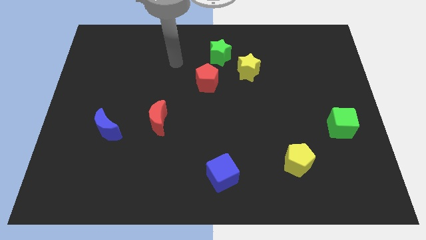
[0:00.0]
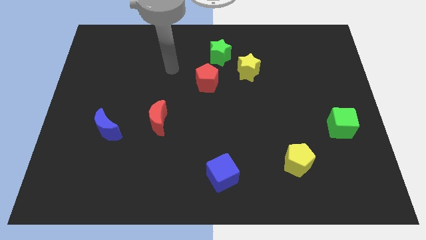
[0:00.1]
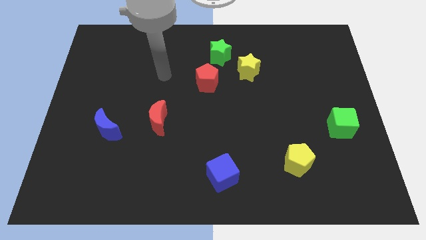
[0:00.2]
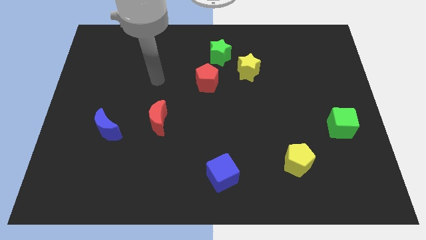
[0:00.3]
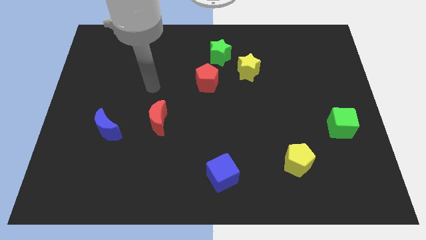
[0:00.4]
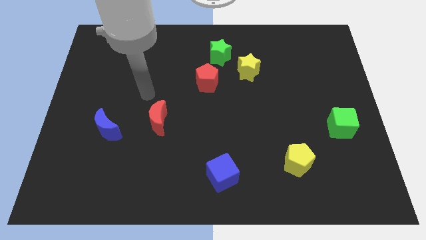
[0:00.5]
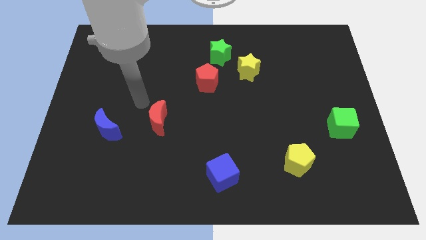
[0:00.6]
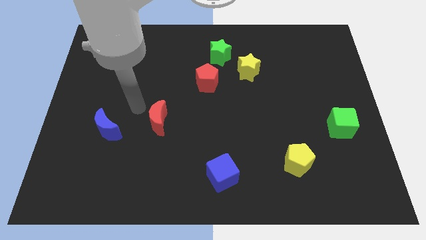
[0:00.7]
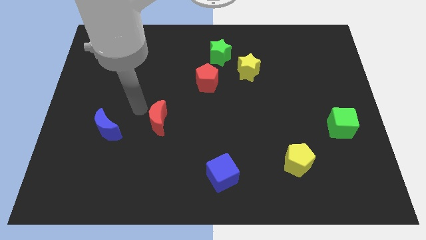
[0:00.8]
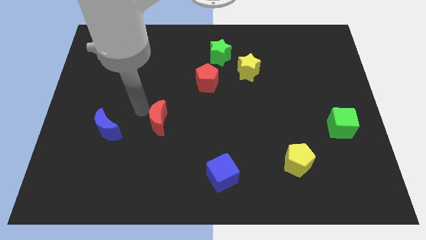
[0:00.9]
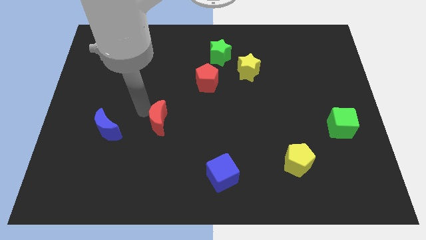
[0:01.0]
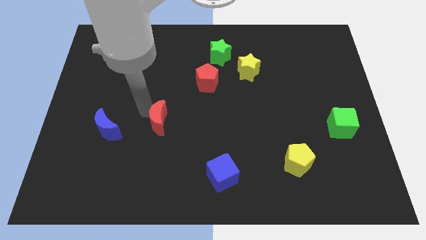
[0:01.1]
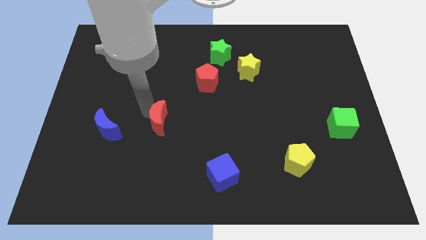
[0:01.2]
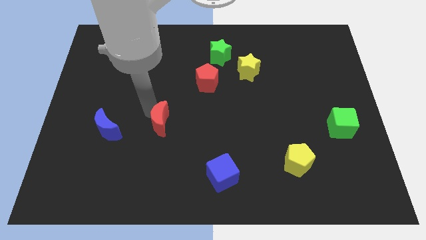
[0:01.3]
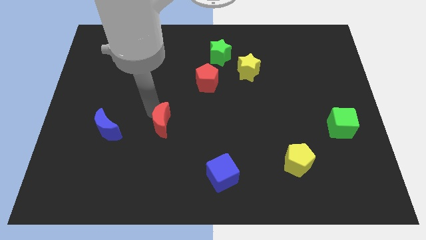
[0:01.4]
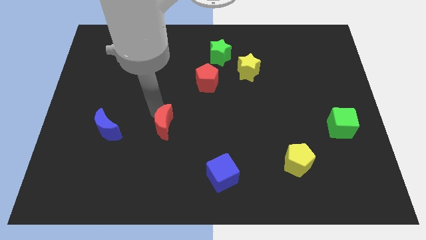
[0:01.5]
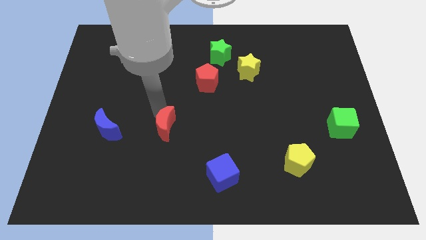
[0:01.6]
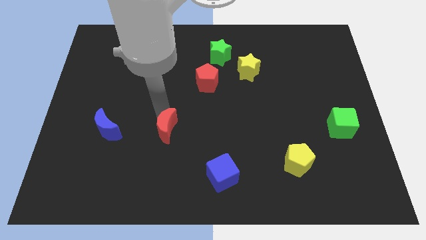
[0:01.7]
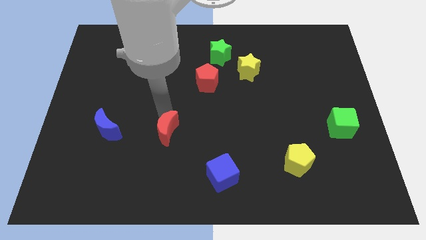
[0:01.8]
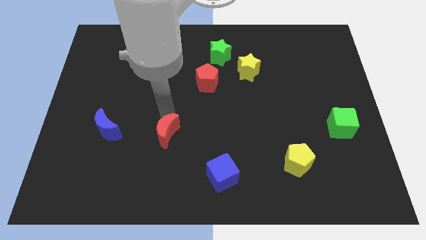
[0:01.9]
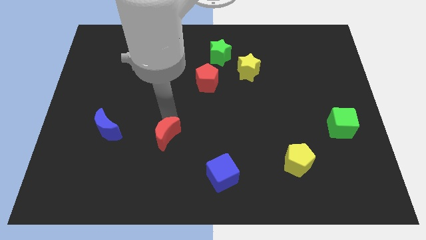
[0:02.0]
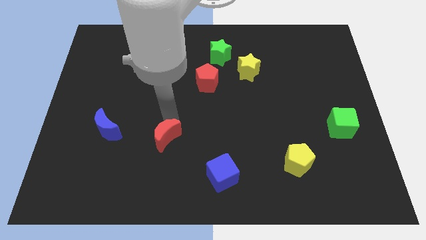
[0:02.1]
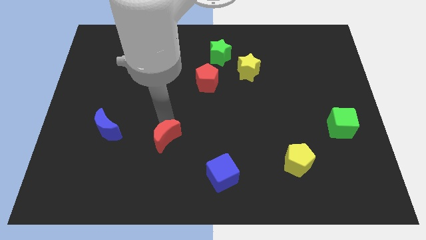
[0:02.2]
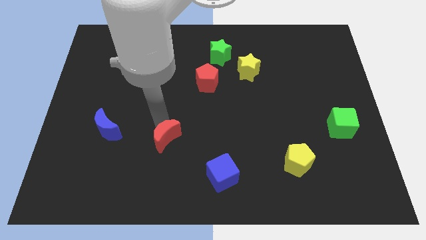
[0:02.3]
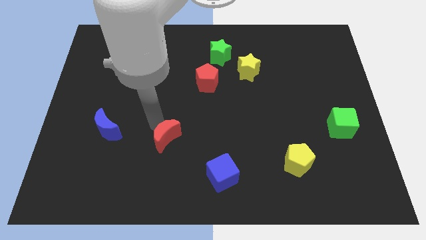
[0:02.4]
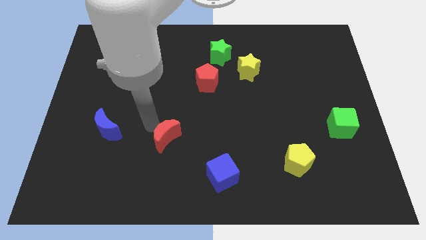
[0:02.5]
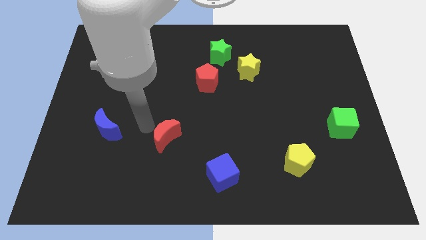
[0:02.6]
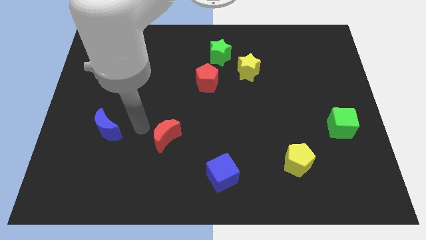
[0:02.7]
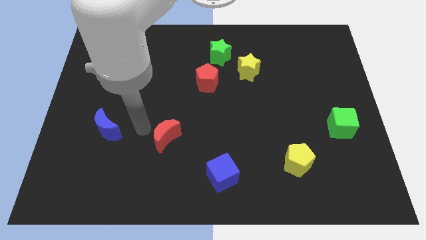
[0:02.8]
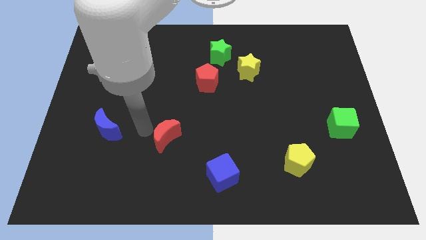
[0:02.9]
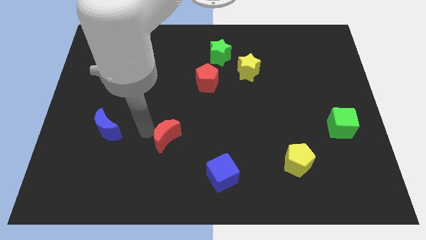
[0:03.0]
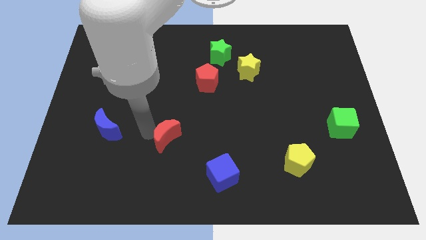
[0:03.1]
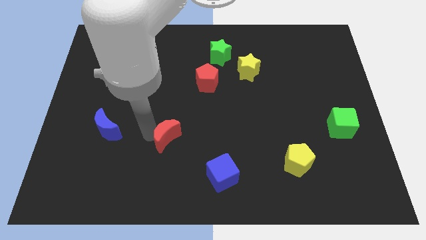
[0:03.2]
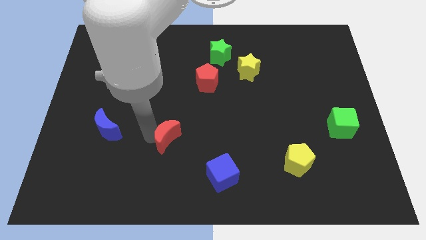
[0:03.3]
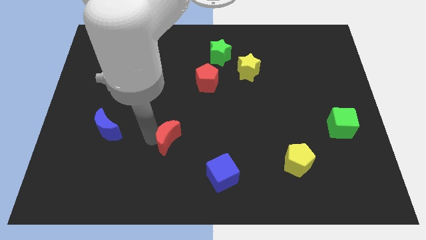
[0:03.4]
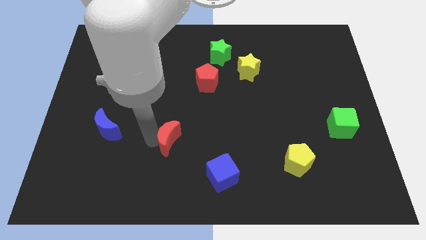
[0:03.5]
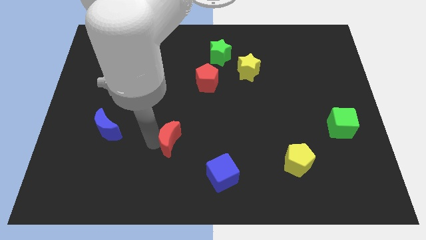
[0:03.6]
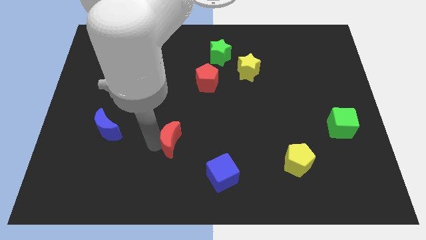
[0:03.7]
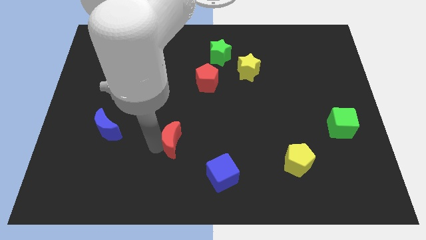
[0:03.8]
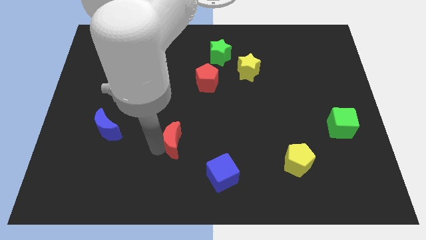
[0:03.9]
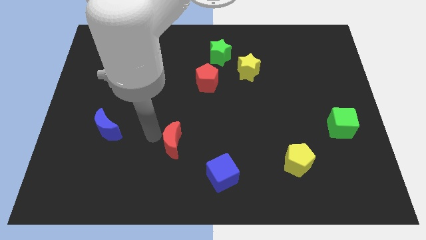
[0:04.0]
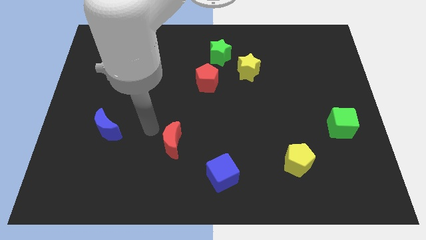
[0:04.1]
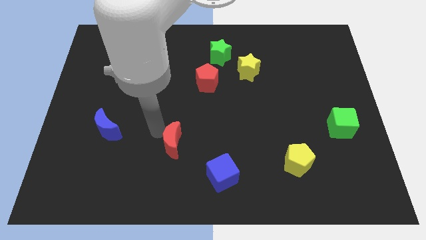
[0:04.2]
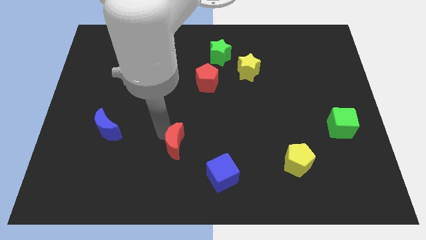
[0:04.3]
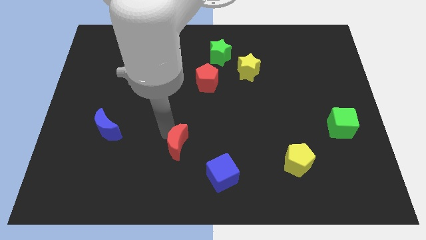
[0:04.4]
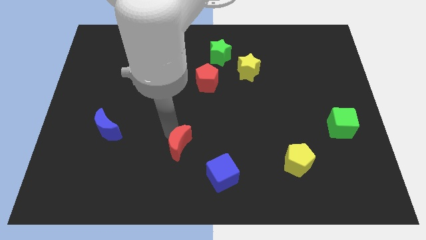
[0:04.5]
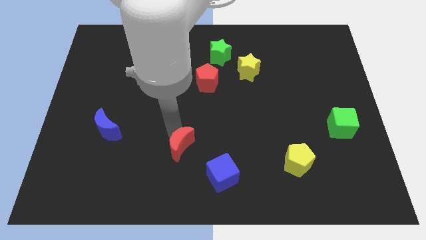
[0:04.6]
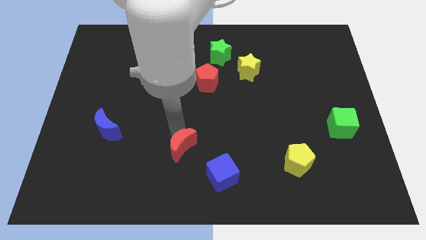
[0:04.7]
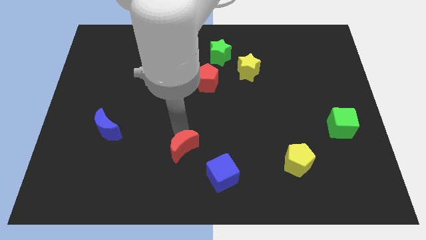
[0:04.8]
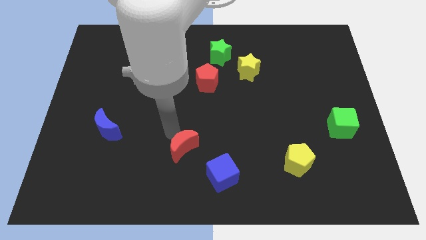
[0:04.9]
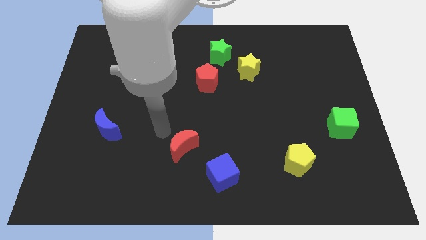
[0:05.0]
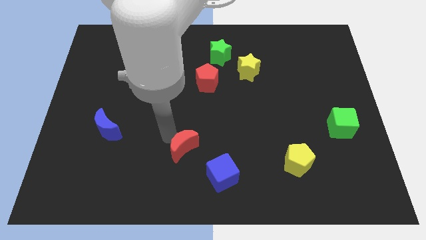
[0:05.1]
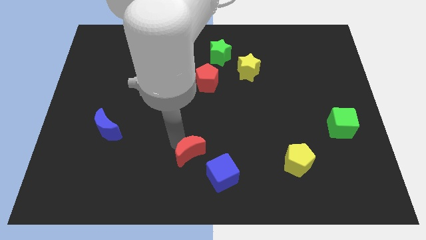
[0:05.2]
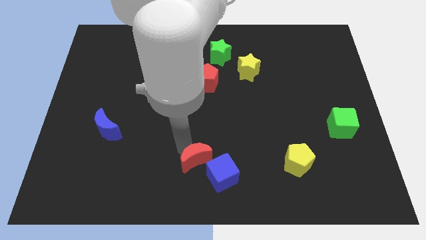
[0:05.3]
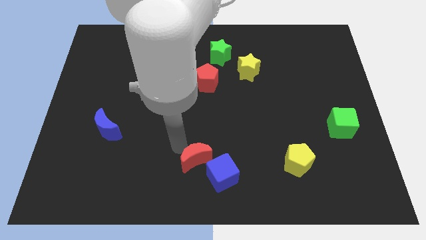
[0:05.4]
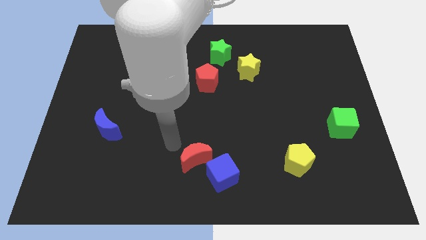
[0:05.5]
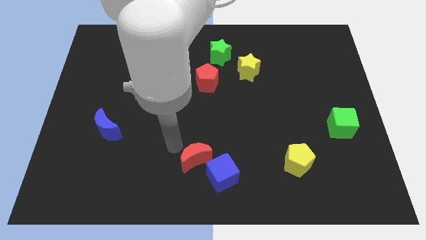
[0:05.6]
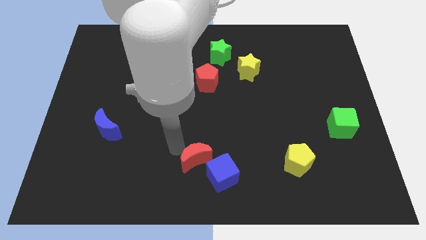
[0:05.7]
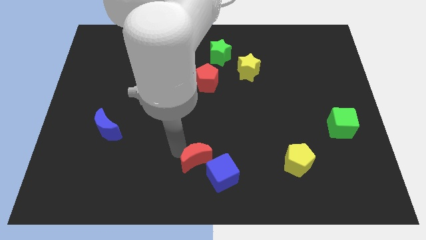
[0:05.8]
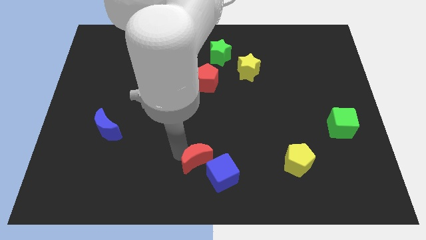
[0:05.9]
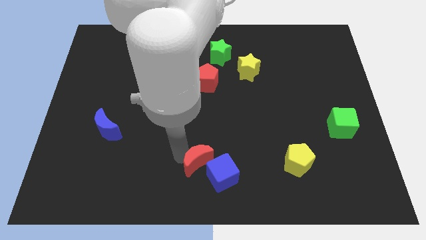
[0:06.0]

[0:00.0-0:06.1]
slide the red moon towards the blue cube

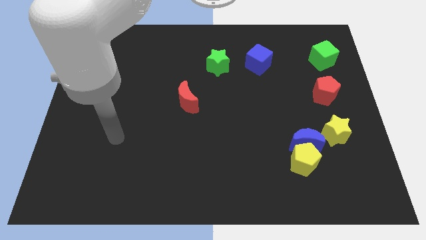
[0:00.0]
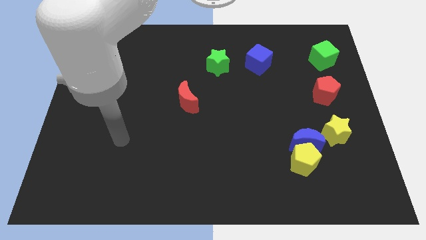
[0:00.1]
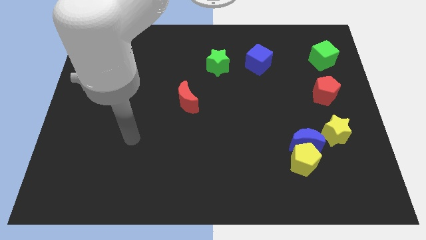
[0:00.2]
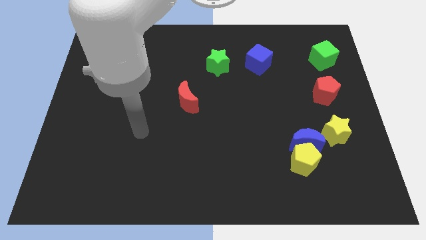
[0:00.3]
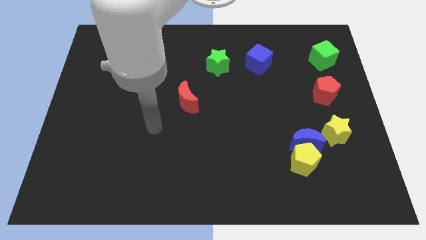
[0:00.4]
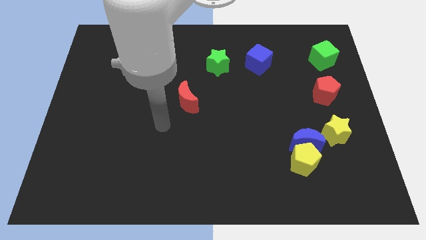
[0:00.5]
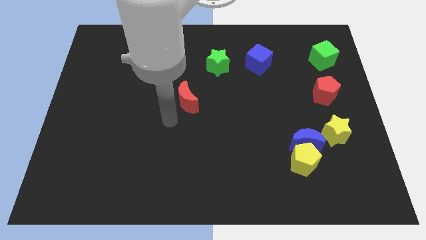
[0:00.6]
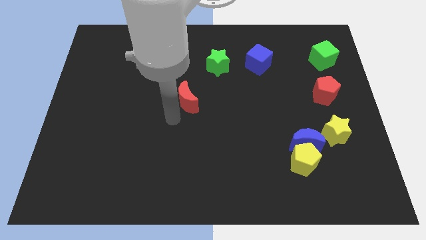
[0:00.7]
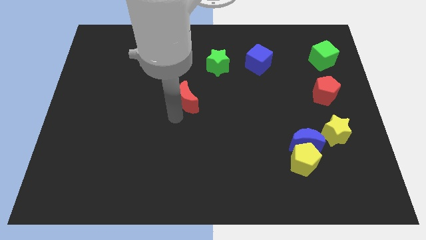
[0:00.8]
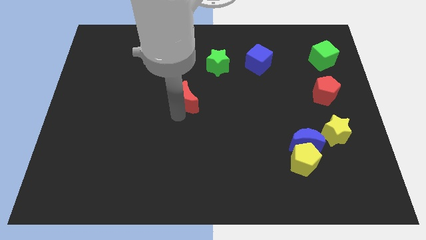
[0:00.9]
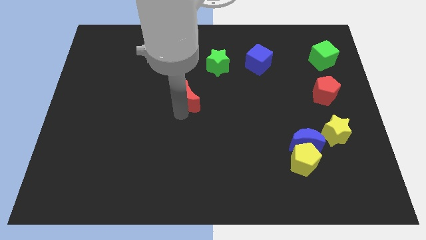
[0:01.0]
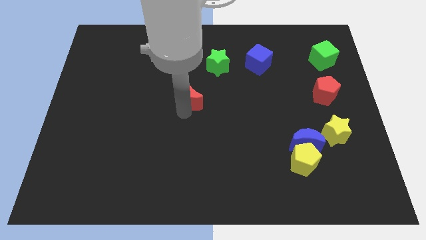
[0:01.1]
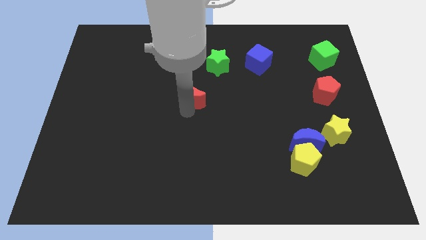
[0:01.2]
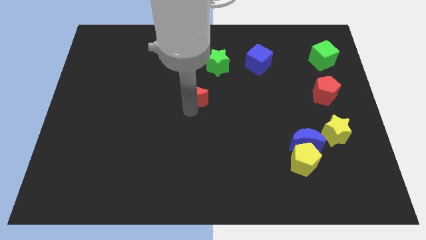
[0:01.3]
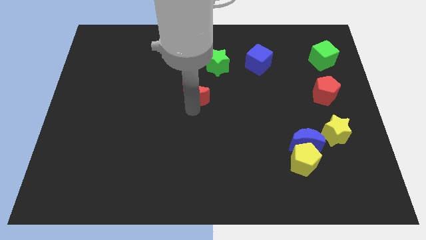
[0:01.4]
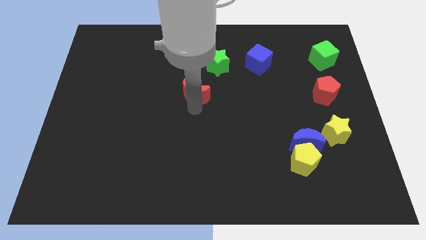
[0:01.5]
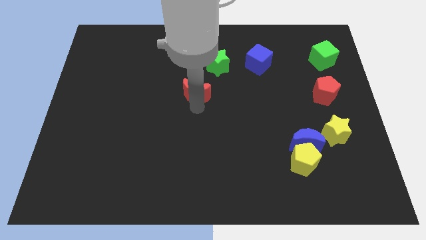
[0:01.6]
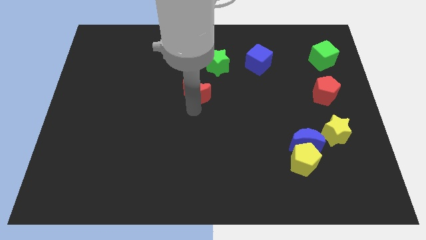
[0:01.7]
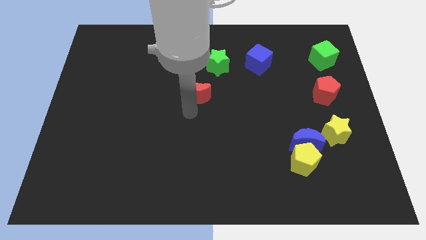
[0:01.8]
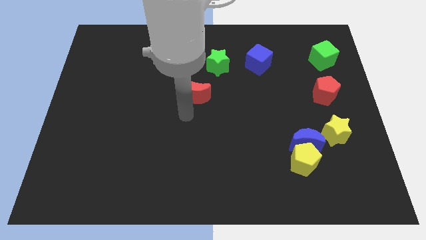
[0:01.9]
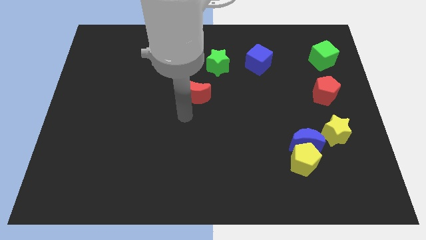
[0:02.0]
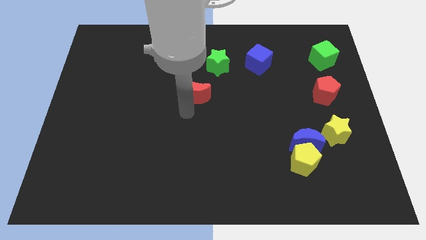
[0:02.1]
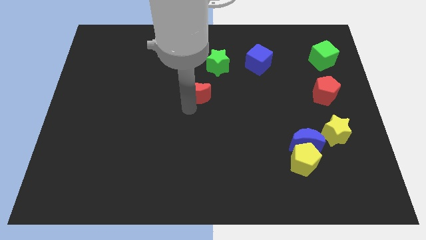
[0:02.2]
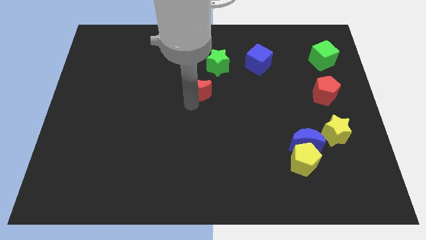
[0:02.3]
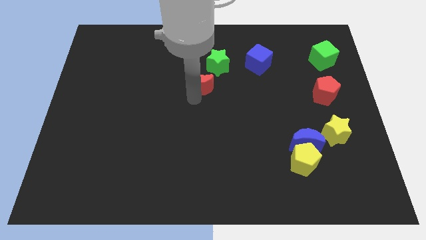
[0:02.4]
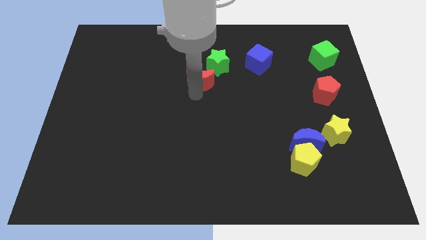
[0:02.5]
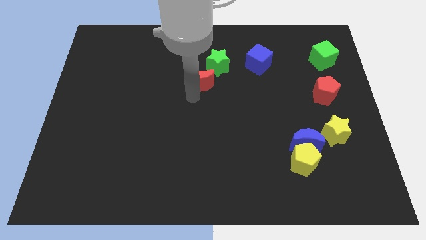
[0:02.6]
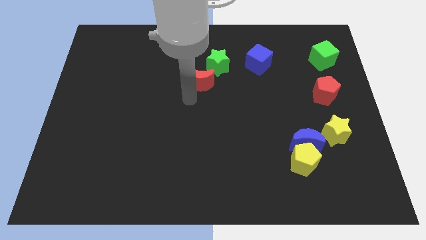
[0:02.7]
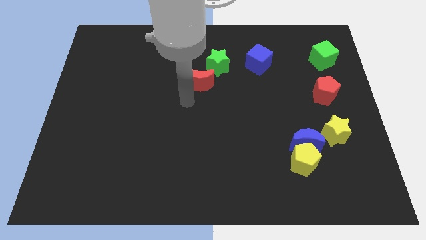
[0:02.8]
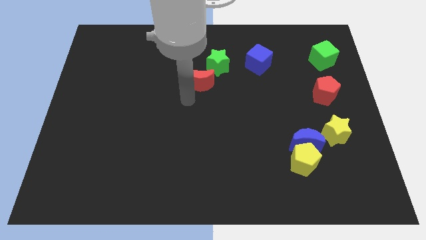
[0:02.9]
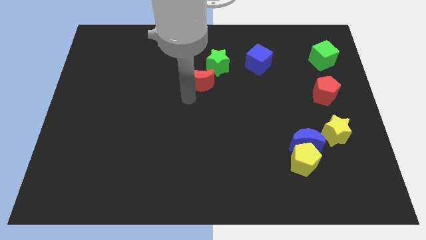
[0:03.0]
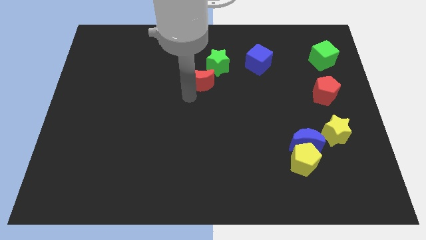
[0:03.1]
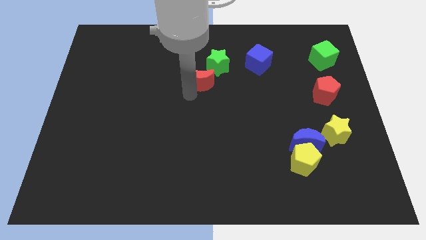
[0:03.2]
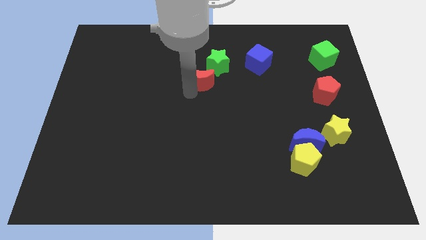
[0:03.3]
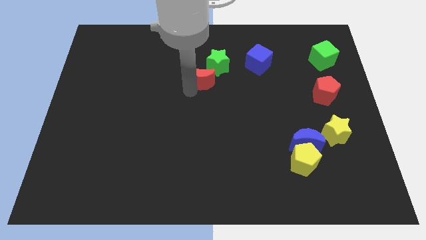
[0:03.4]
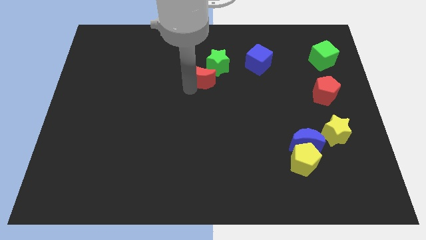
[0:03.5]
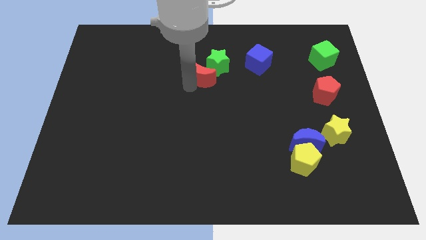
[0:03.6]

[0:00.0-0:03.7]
put the red moon close to the green star
